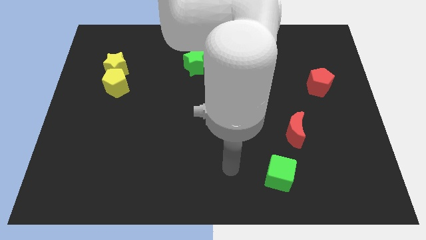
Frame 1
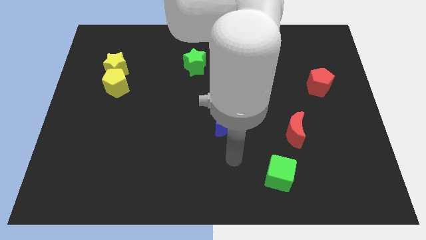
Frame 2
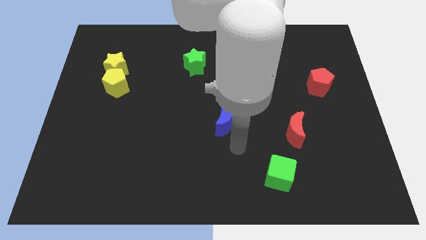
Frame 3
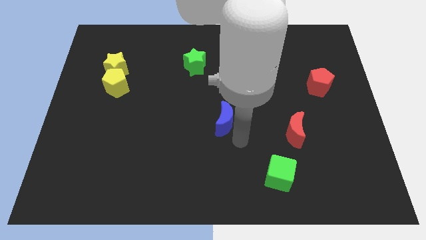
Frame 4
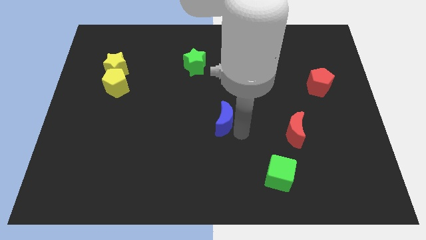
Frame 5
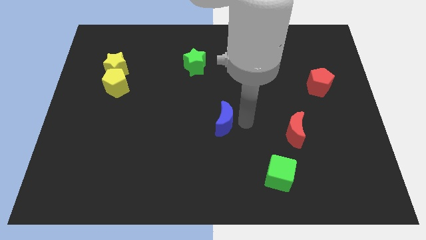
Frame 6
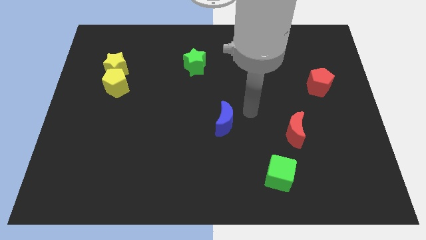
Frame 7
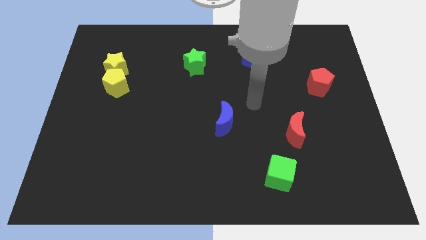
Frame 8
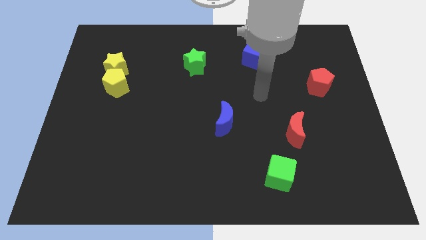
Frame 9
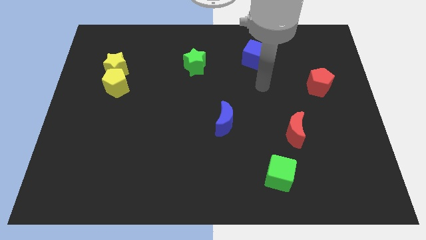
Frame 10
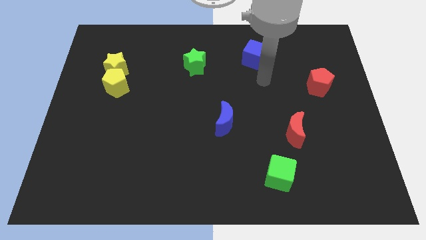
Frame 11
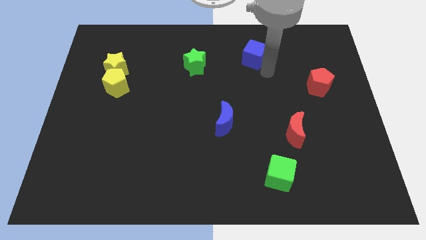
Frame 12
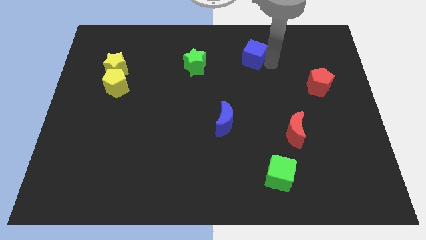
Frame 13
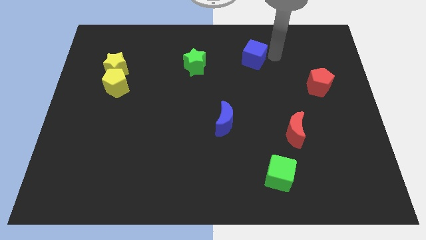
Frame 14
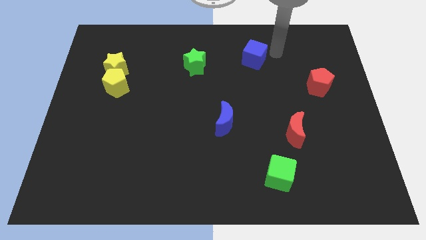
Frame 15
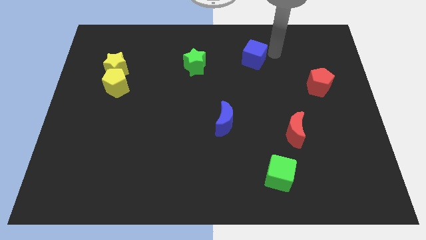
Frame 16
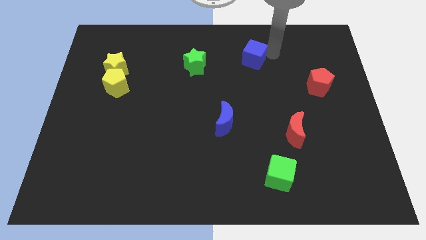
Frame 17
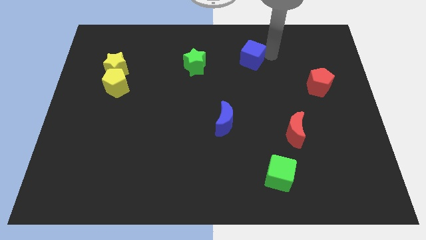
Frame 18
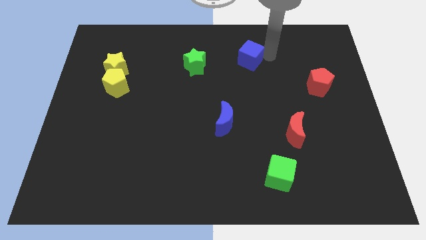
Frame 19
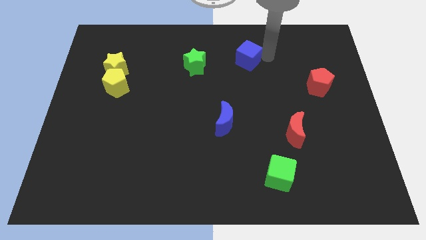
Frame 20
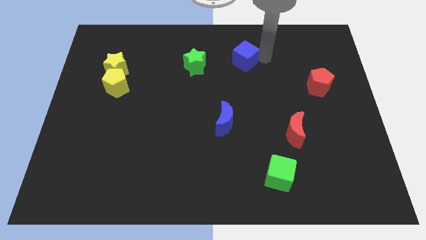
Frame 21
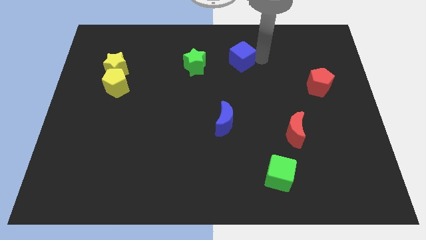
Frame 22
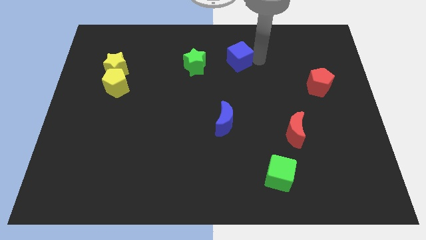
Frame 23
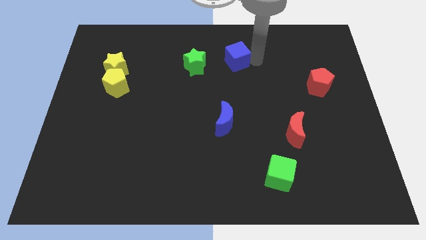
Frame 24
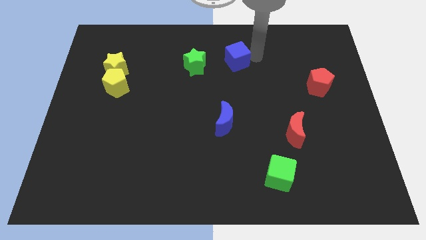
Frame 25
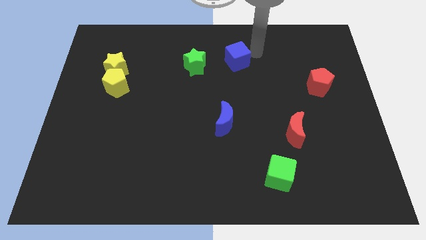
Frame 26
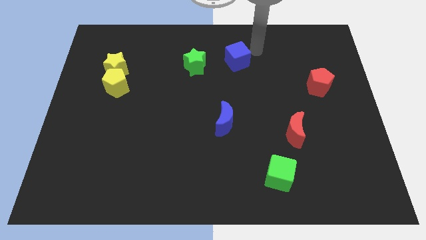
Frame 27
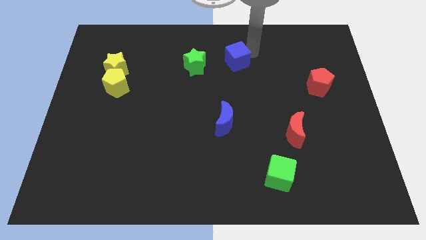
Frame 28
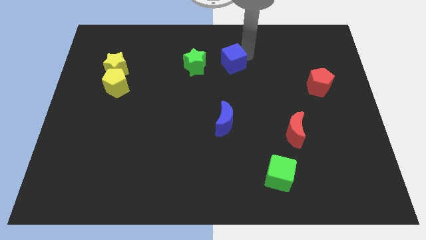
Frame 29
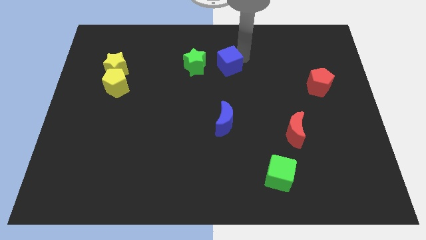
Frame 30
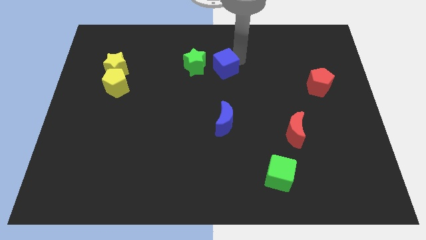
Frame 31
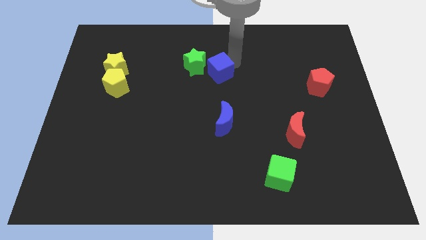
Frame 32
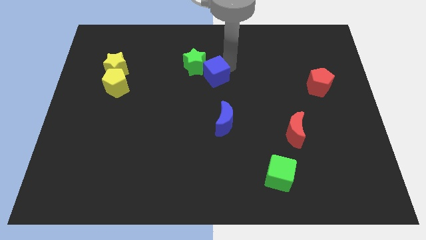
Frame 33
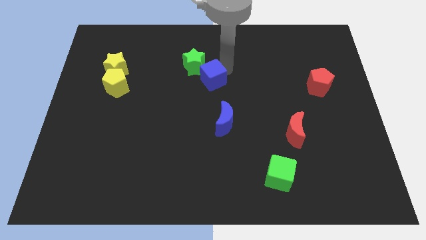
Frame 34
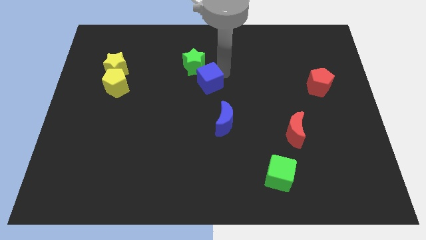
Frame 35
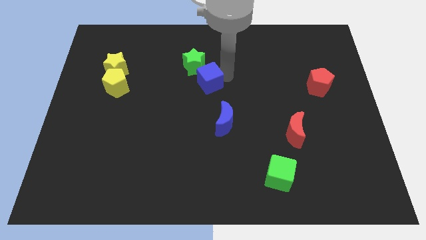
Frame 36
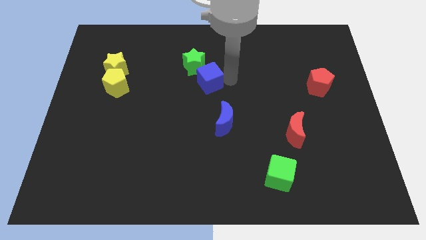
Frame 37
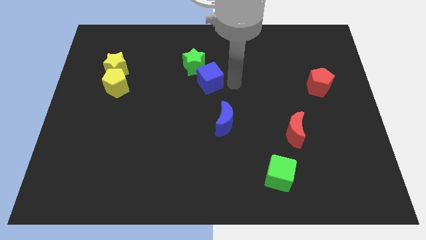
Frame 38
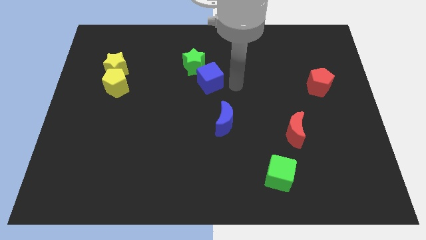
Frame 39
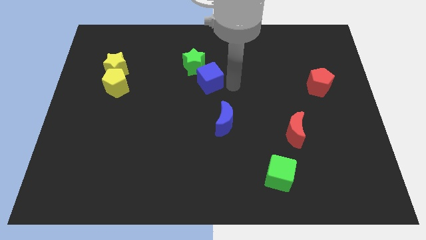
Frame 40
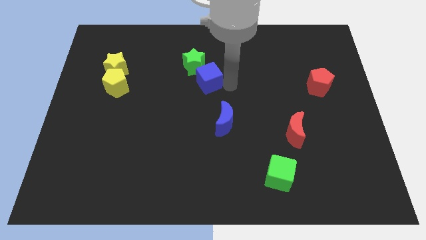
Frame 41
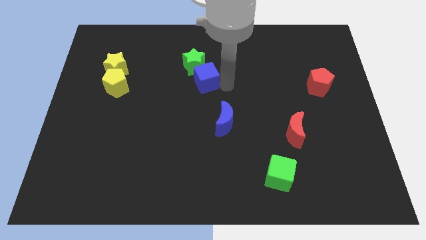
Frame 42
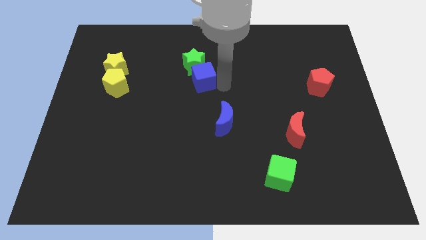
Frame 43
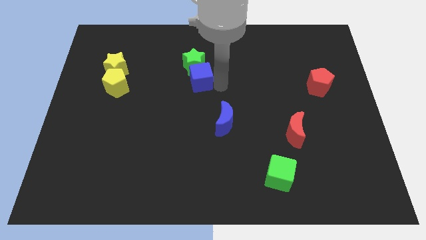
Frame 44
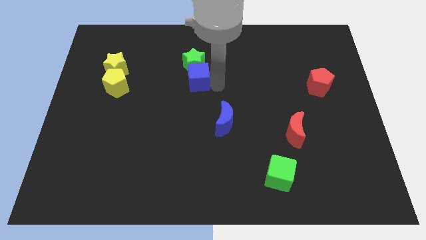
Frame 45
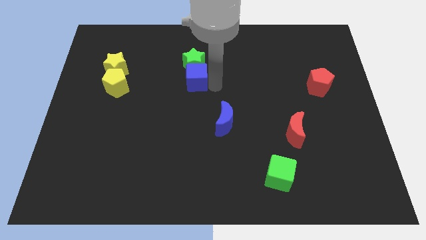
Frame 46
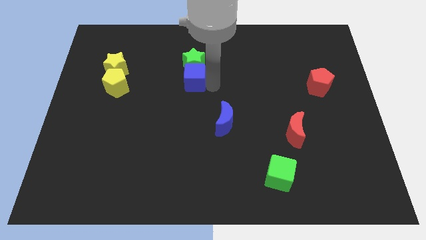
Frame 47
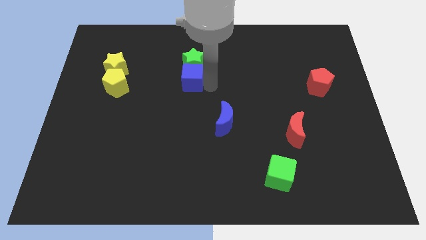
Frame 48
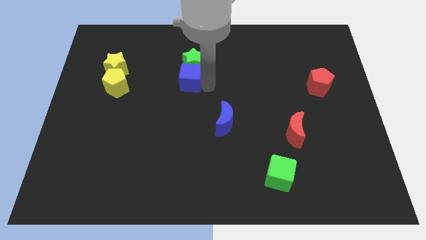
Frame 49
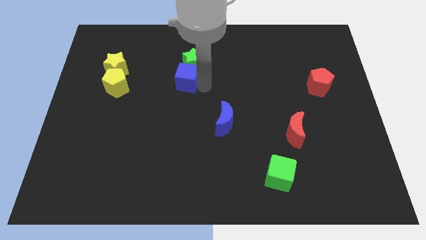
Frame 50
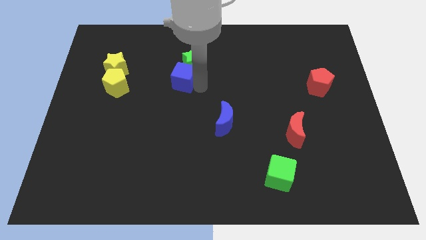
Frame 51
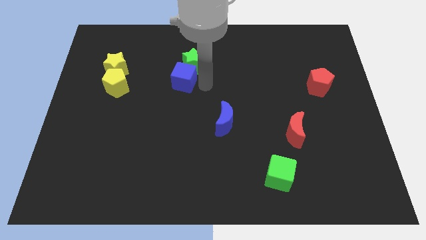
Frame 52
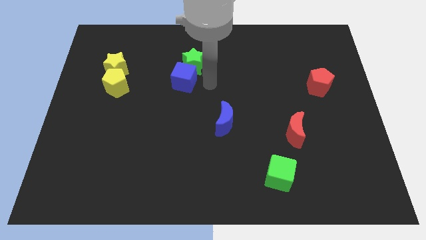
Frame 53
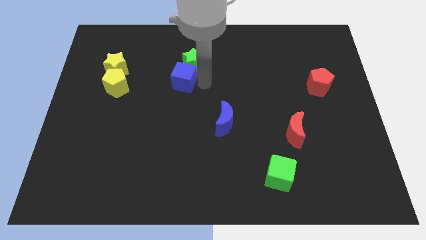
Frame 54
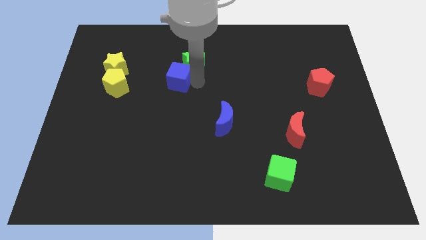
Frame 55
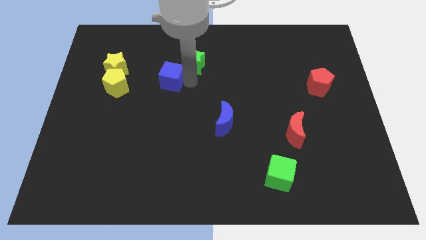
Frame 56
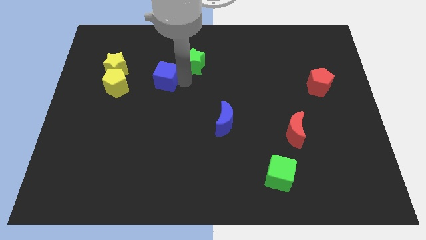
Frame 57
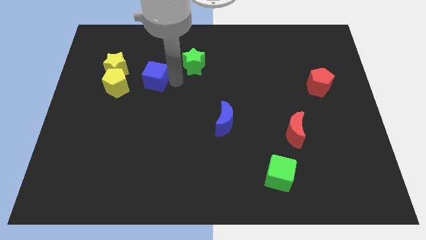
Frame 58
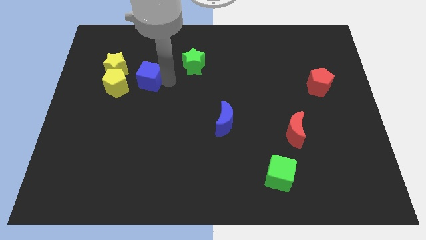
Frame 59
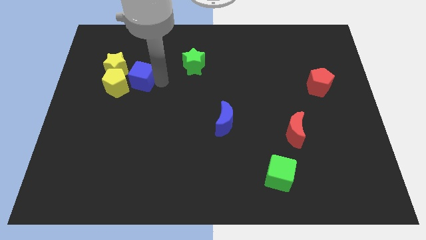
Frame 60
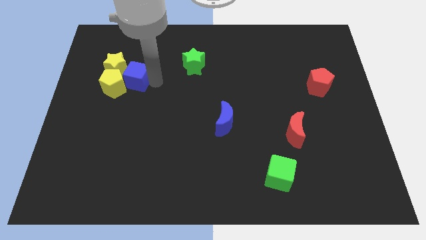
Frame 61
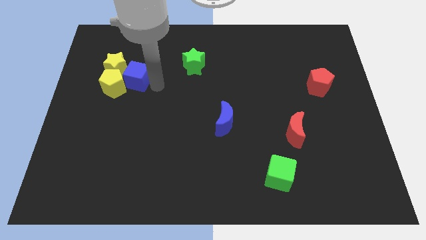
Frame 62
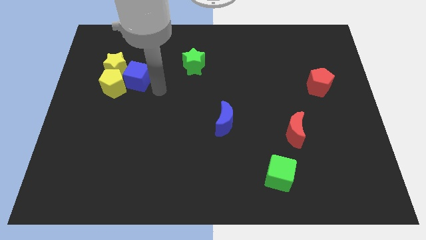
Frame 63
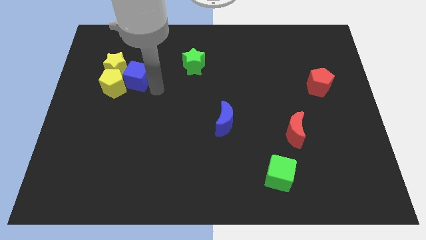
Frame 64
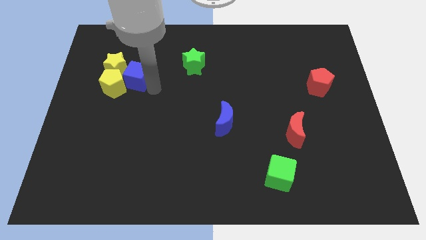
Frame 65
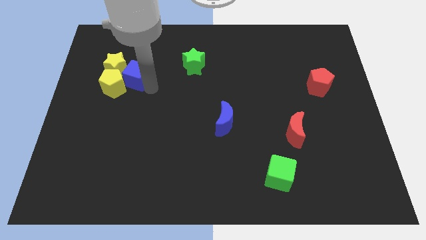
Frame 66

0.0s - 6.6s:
push the blue cube to the yellow star
